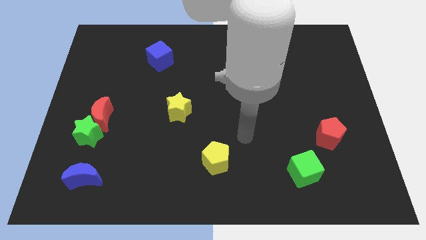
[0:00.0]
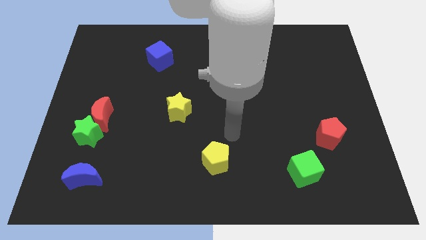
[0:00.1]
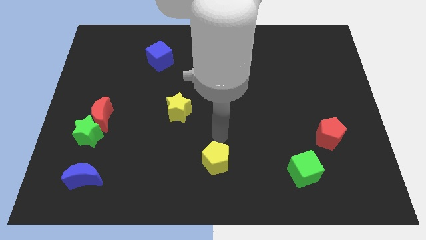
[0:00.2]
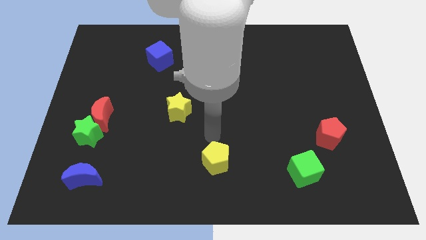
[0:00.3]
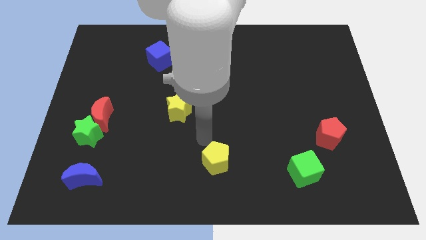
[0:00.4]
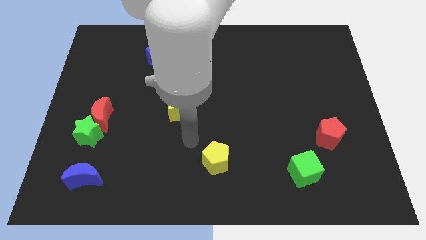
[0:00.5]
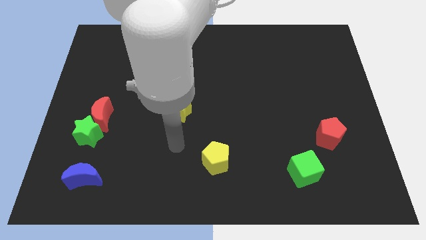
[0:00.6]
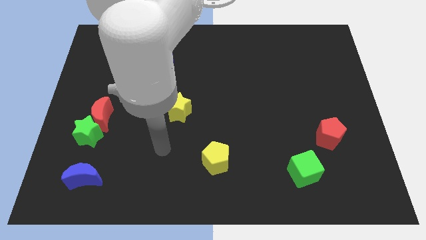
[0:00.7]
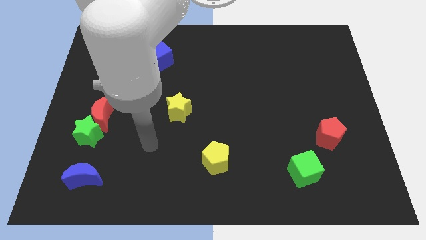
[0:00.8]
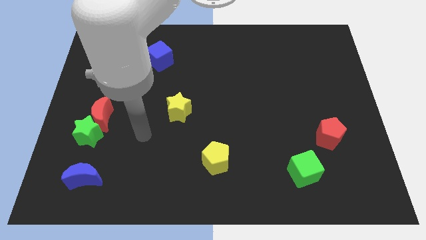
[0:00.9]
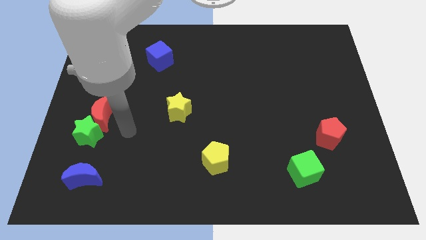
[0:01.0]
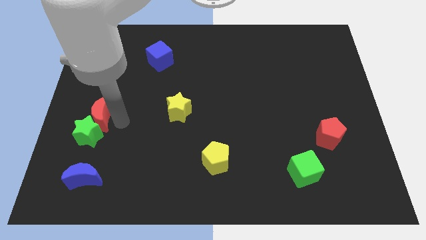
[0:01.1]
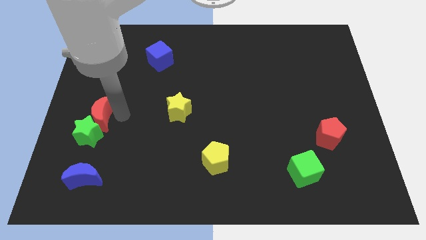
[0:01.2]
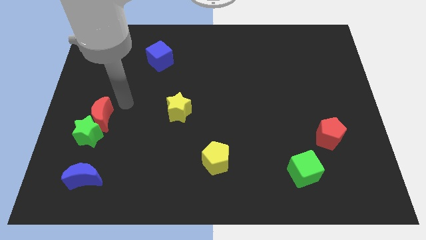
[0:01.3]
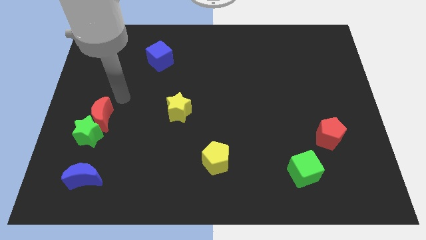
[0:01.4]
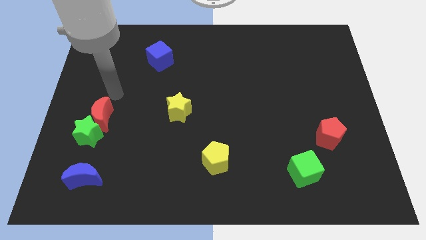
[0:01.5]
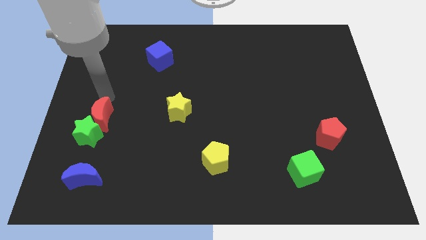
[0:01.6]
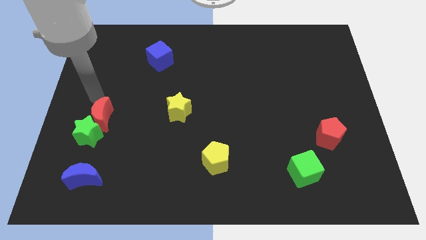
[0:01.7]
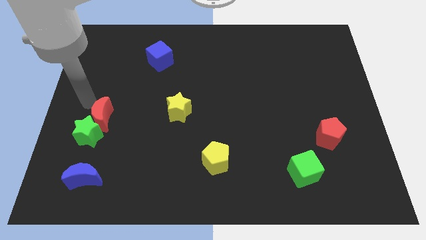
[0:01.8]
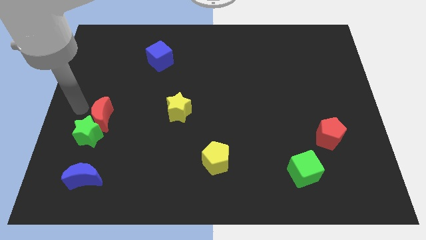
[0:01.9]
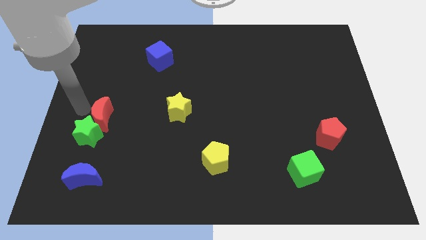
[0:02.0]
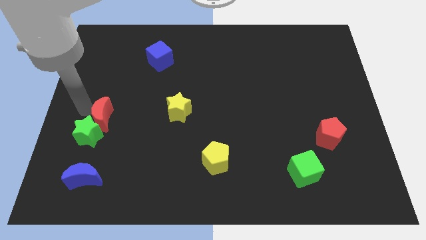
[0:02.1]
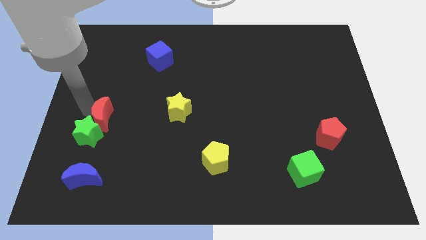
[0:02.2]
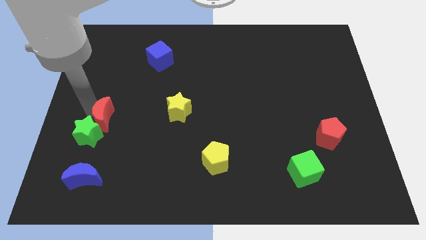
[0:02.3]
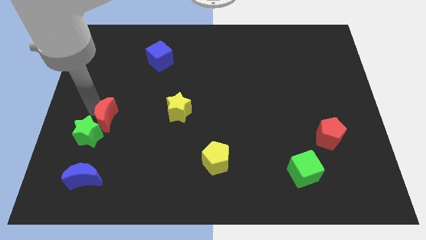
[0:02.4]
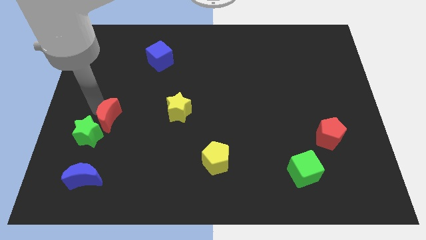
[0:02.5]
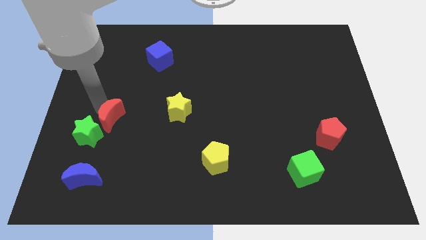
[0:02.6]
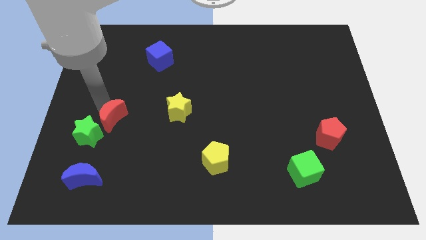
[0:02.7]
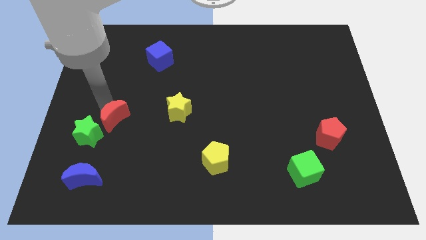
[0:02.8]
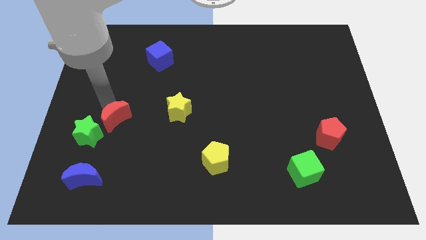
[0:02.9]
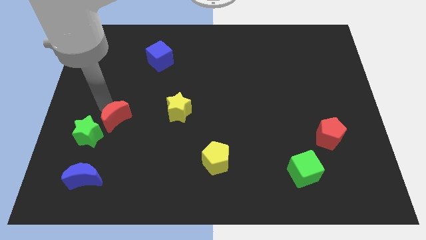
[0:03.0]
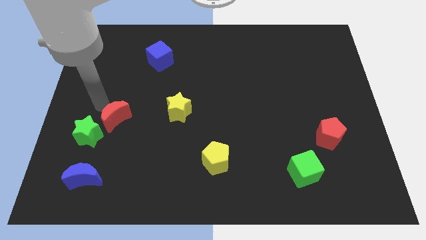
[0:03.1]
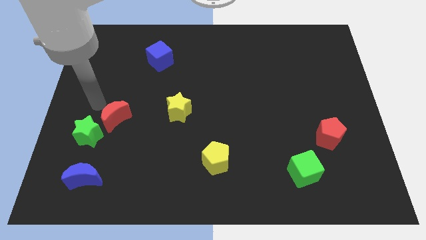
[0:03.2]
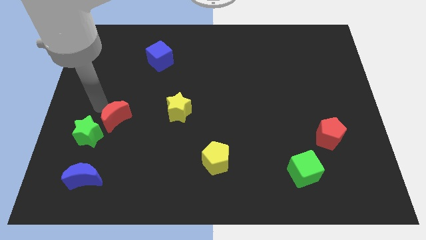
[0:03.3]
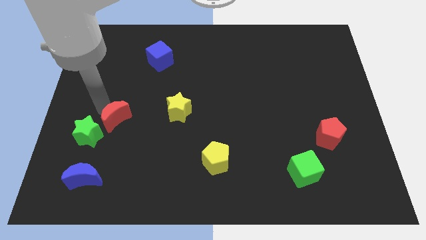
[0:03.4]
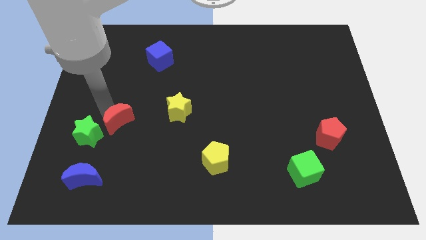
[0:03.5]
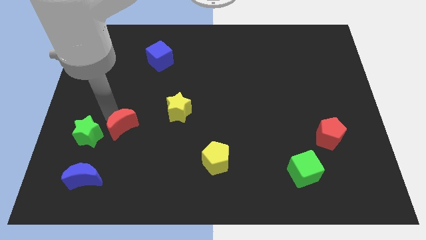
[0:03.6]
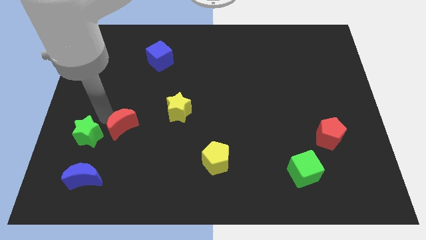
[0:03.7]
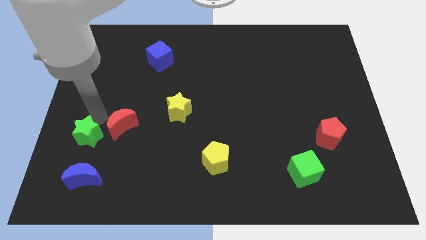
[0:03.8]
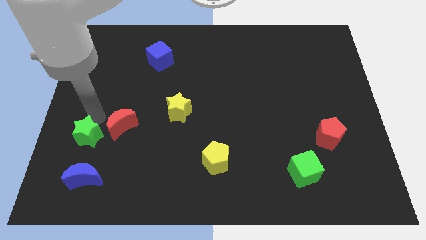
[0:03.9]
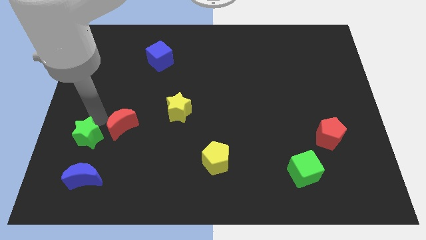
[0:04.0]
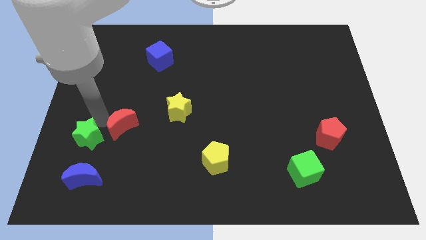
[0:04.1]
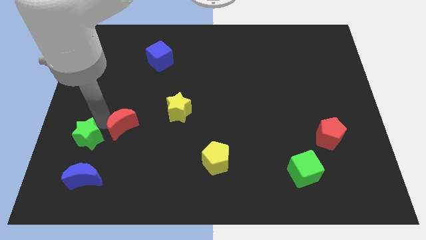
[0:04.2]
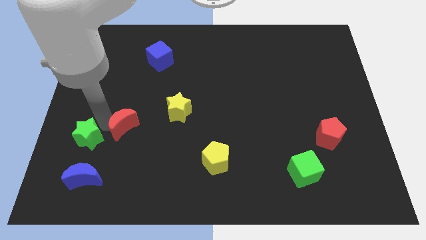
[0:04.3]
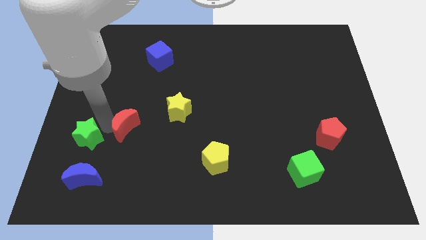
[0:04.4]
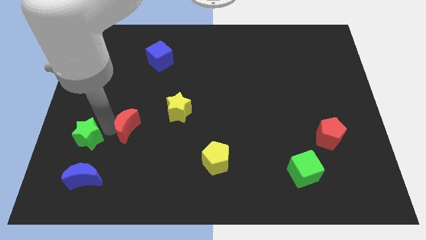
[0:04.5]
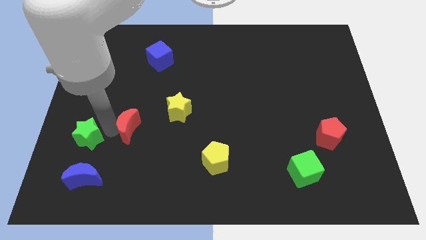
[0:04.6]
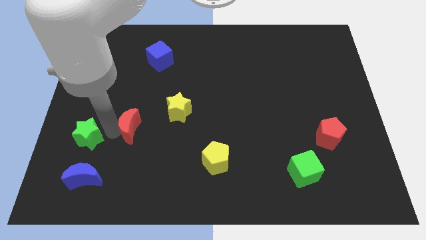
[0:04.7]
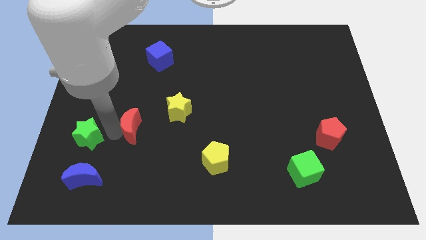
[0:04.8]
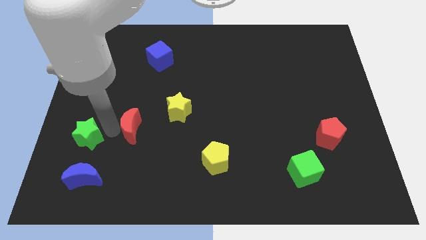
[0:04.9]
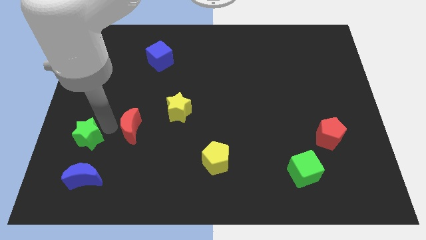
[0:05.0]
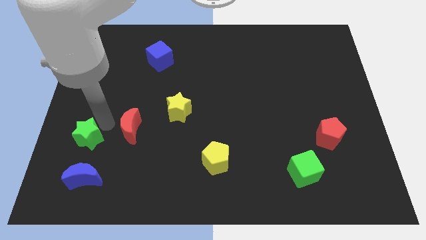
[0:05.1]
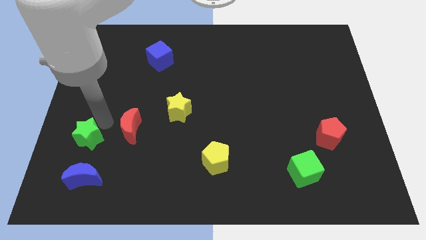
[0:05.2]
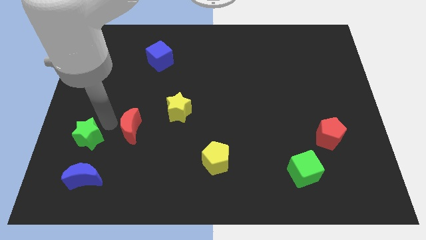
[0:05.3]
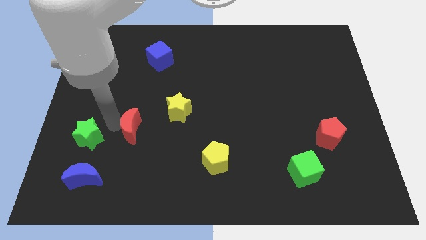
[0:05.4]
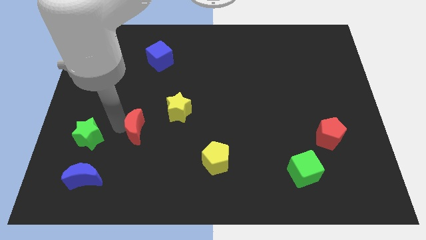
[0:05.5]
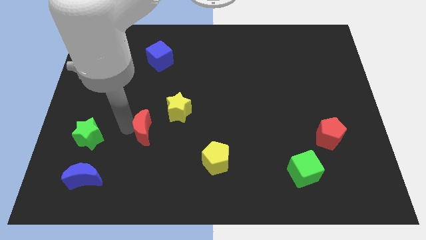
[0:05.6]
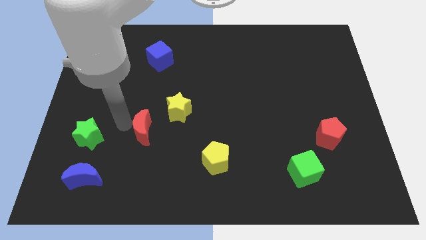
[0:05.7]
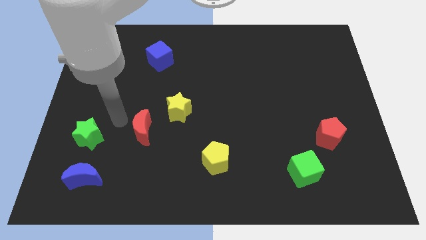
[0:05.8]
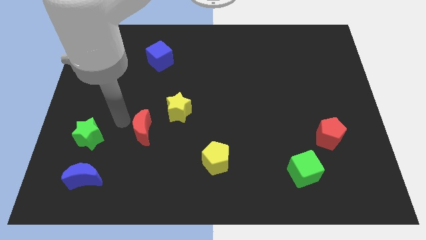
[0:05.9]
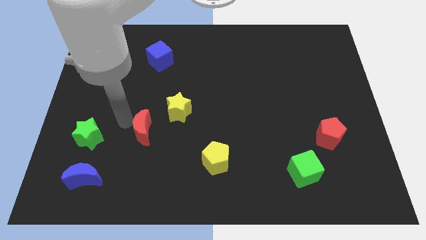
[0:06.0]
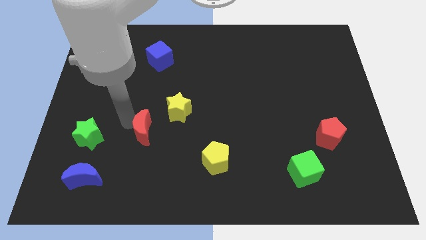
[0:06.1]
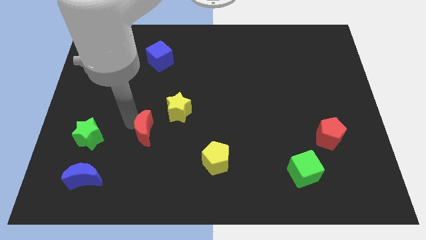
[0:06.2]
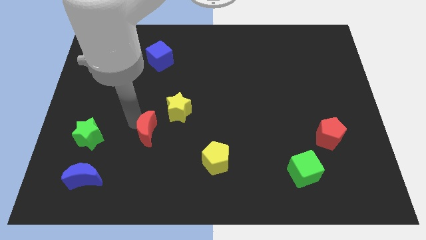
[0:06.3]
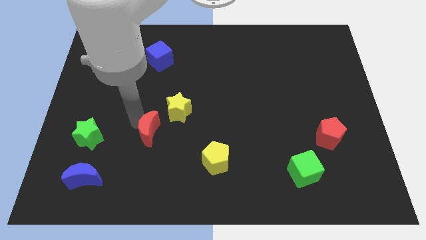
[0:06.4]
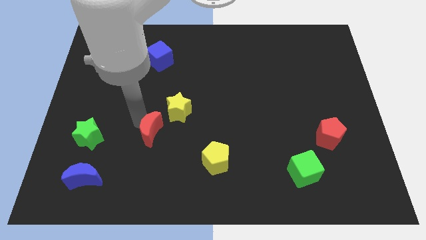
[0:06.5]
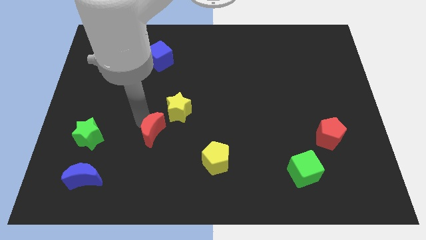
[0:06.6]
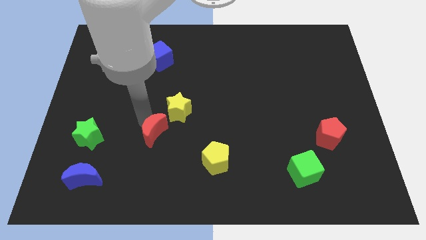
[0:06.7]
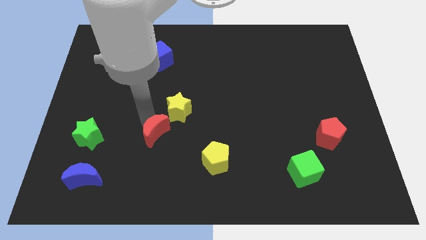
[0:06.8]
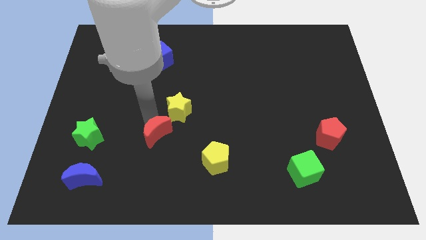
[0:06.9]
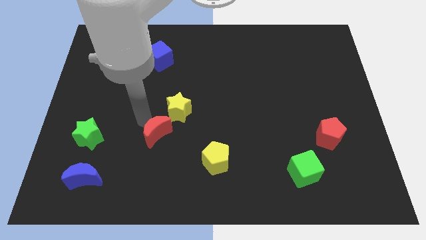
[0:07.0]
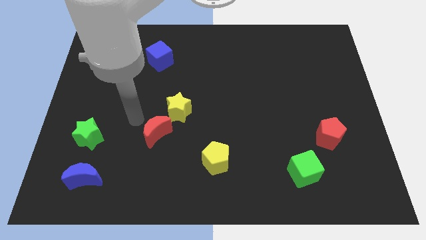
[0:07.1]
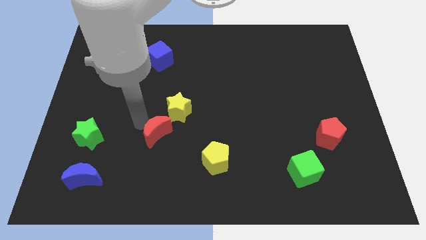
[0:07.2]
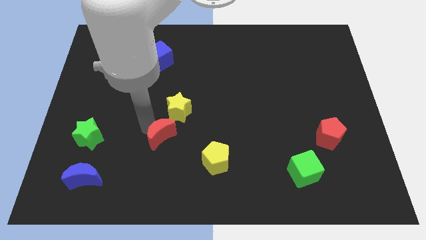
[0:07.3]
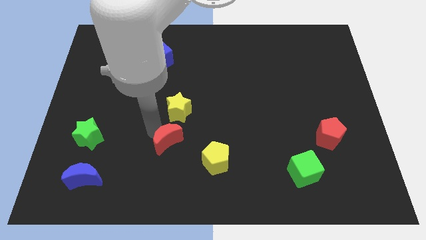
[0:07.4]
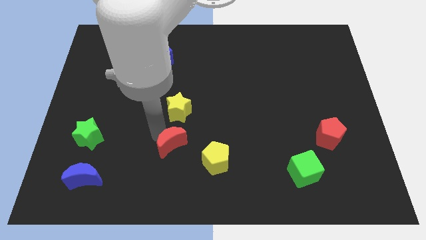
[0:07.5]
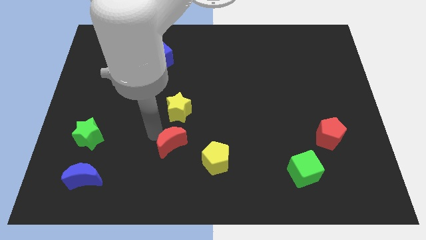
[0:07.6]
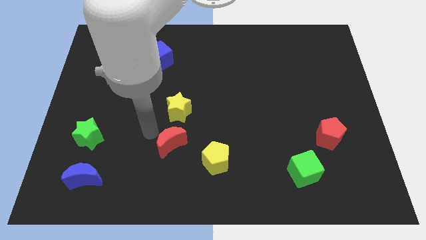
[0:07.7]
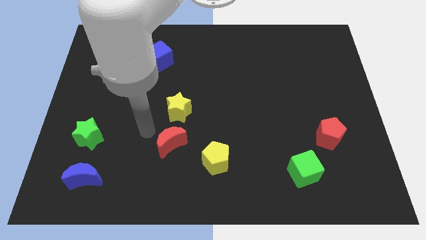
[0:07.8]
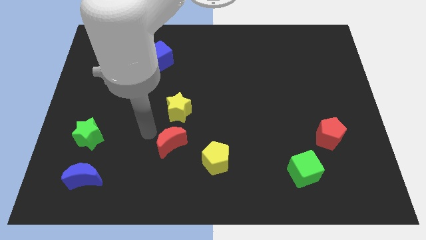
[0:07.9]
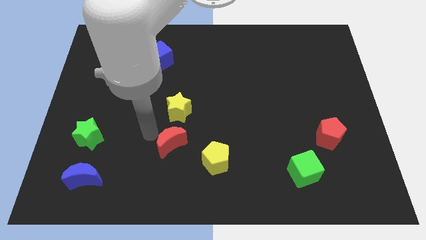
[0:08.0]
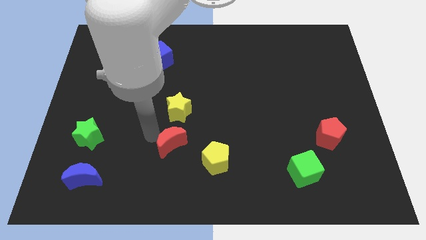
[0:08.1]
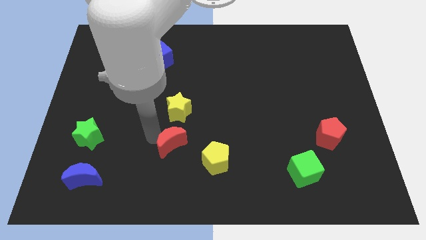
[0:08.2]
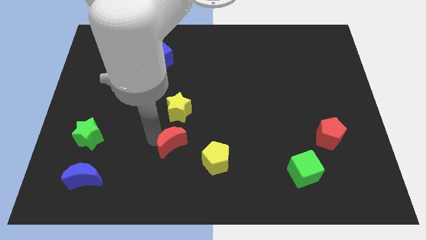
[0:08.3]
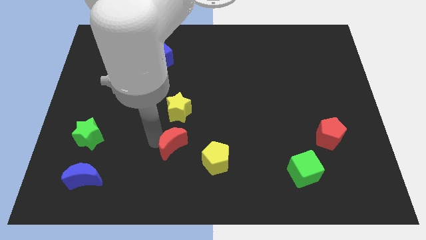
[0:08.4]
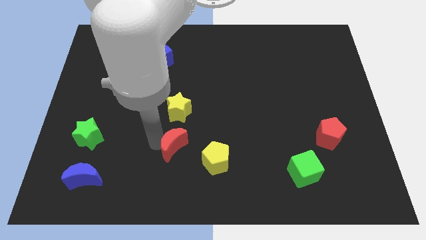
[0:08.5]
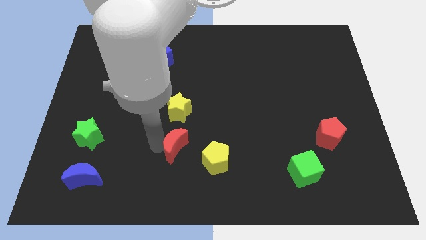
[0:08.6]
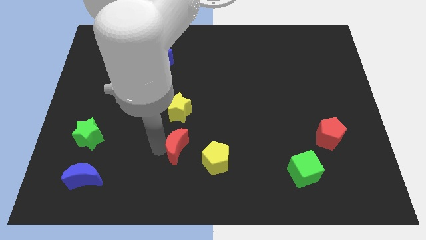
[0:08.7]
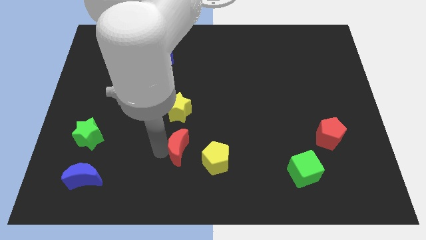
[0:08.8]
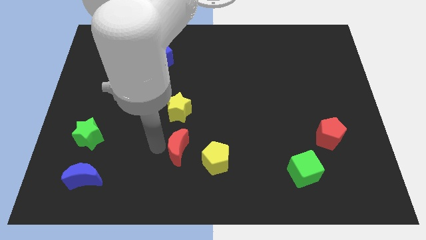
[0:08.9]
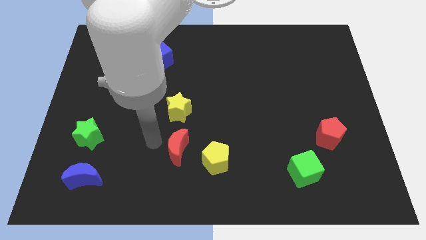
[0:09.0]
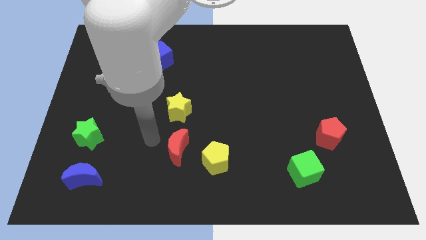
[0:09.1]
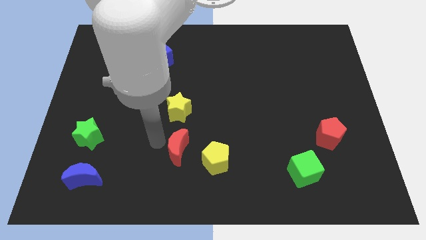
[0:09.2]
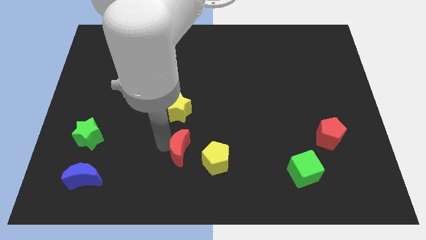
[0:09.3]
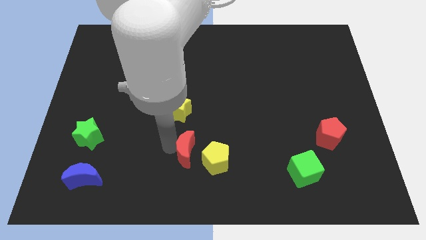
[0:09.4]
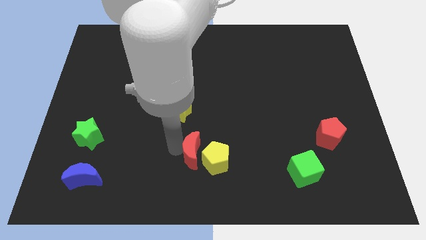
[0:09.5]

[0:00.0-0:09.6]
slide the red moon close to the yellow pentagon
